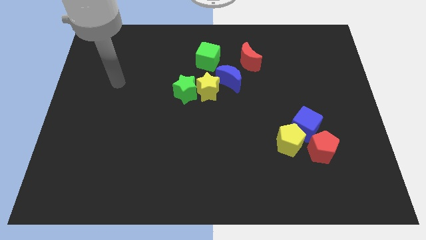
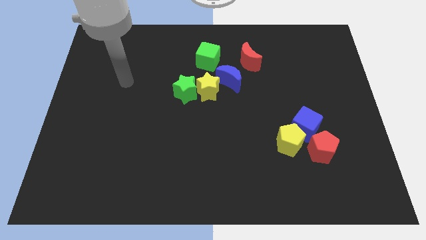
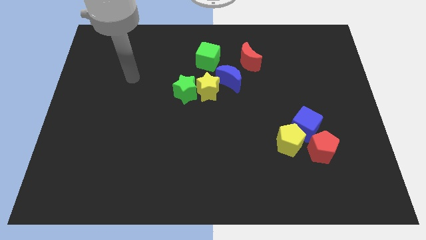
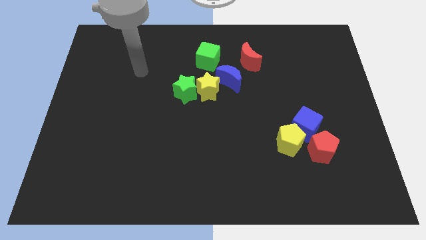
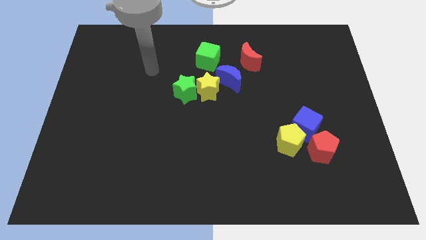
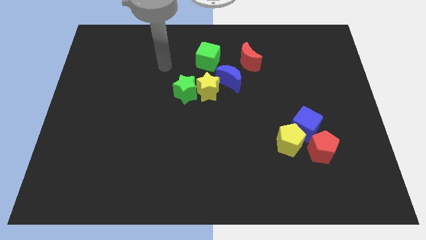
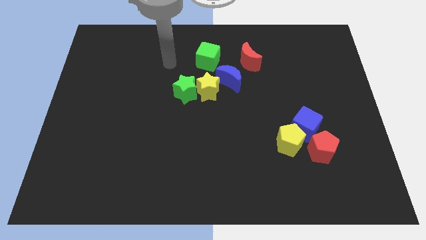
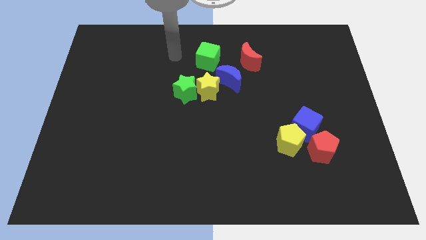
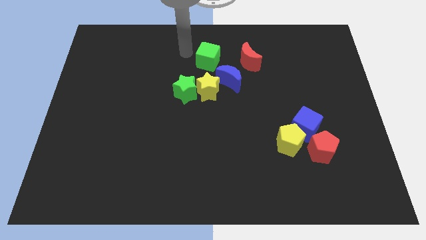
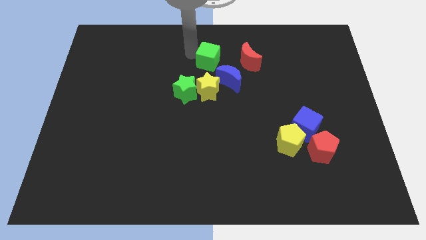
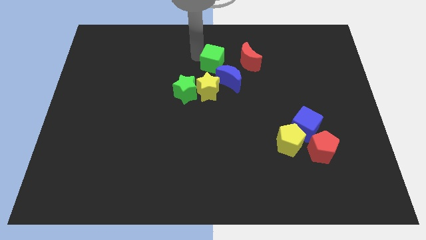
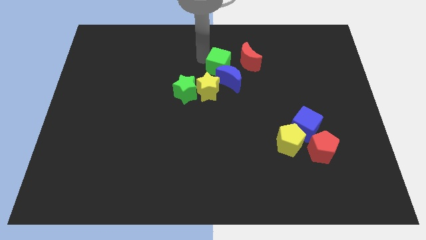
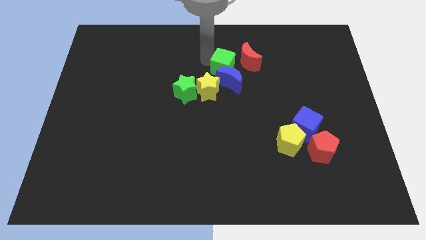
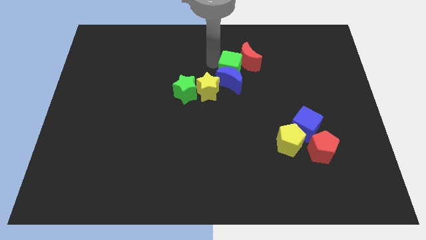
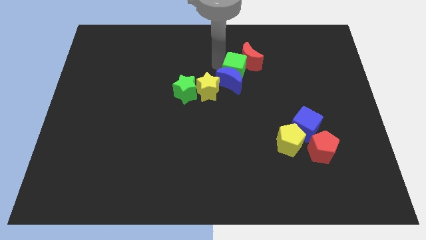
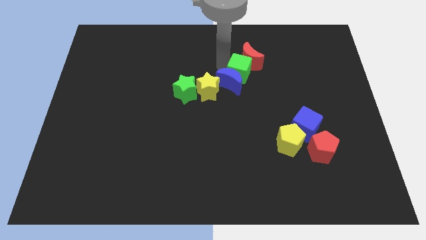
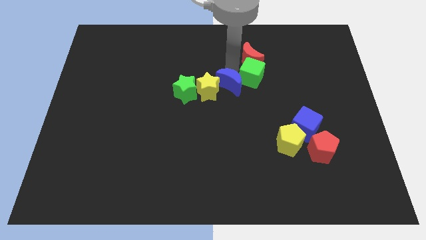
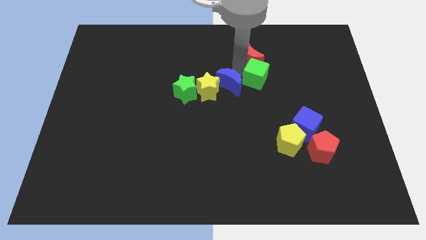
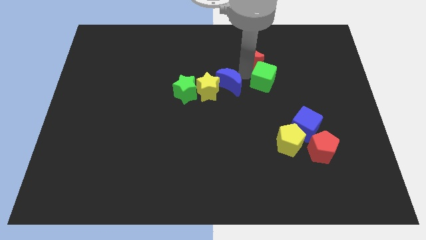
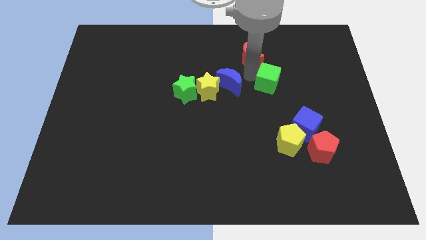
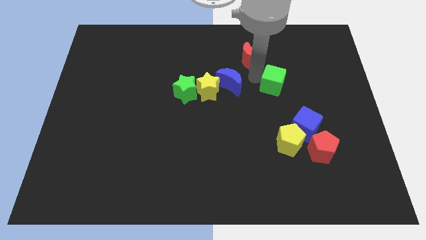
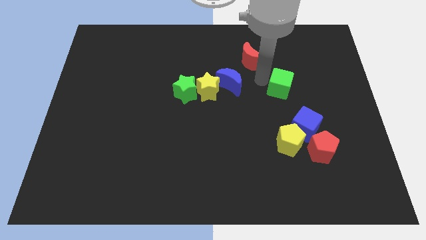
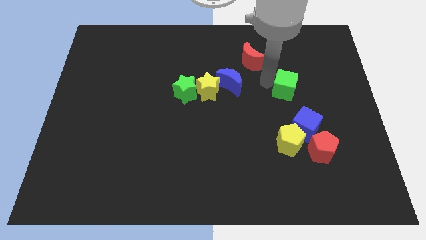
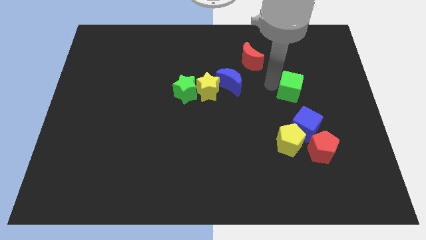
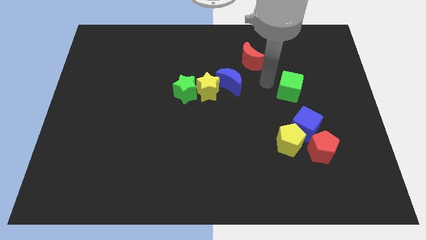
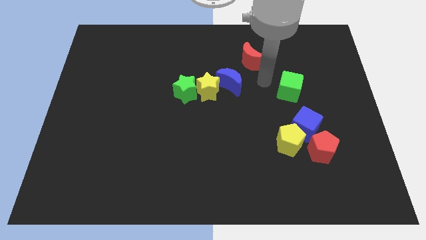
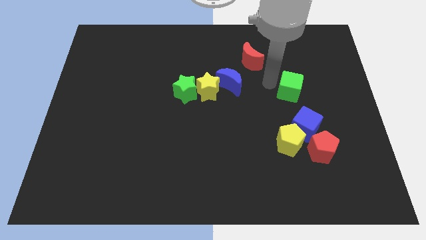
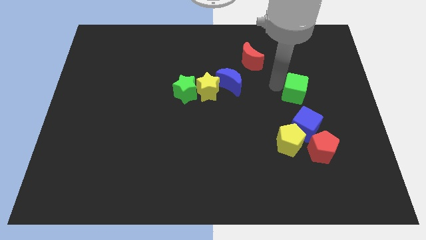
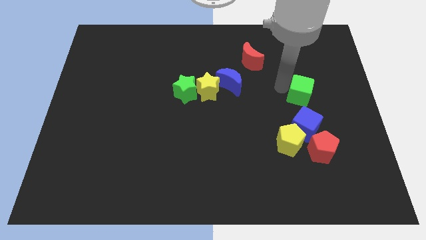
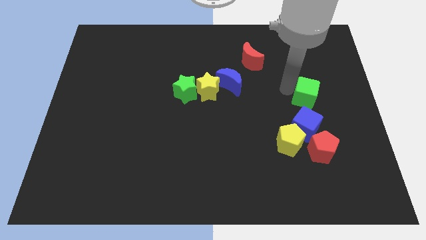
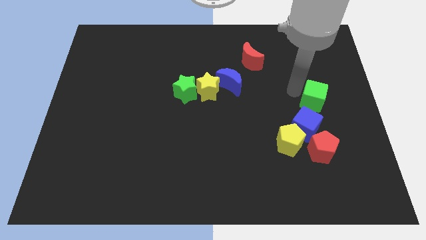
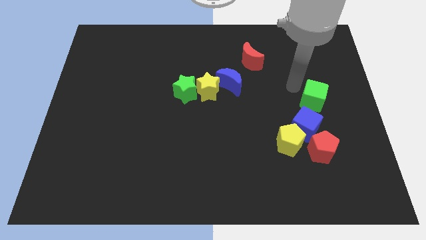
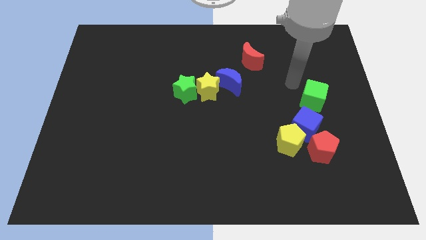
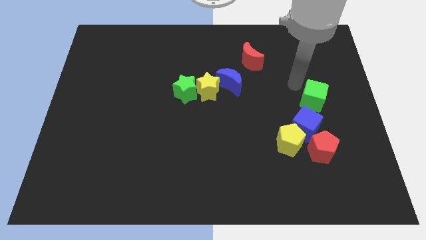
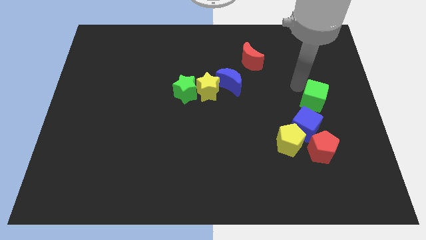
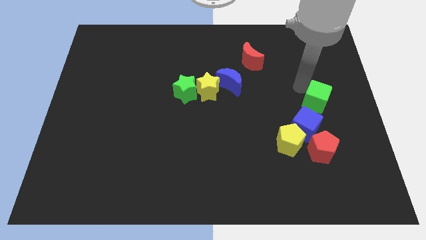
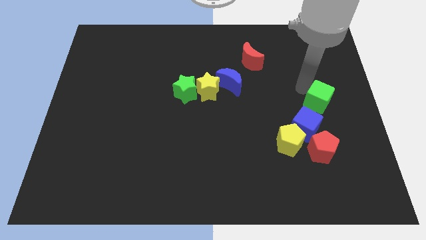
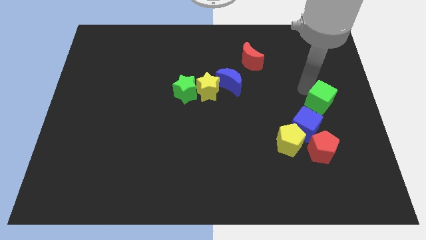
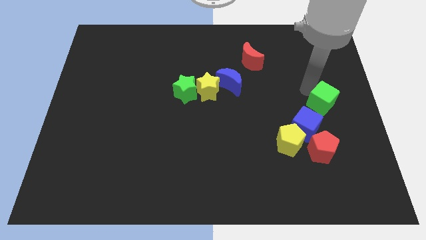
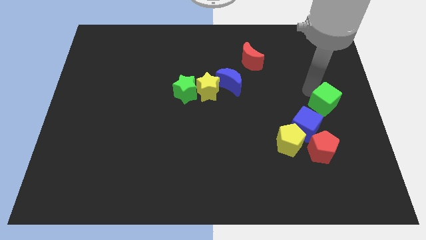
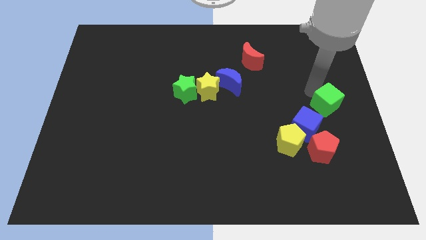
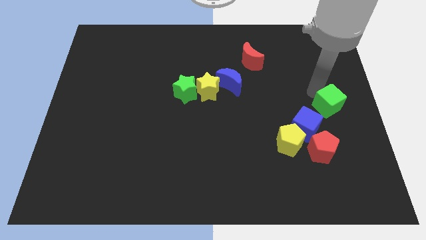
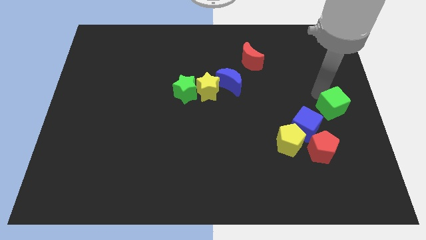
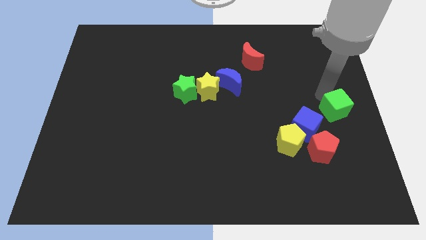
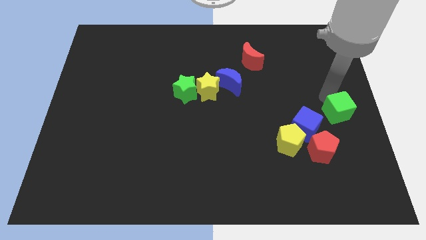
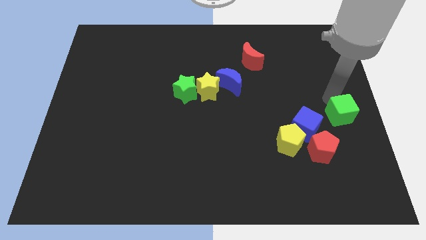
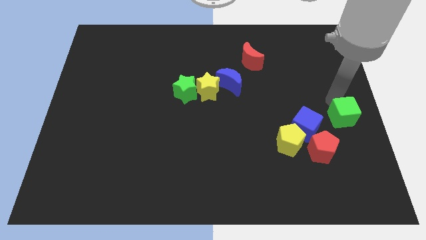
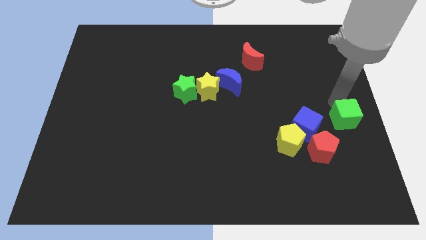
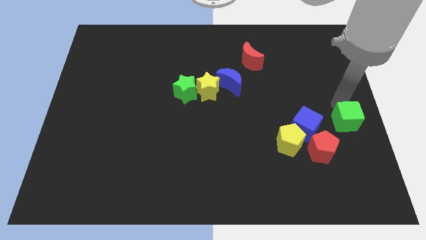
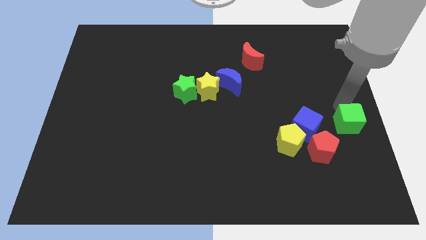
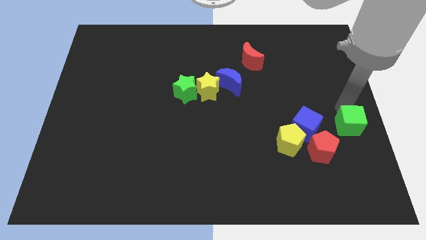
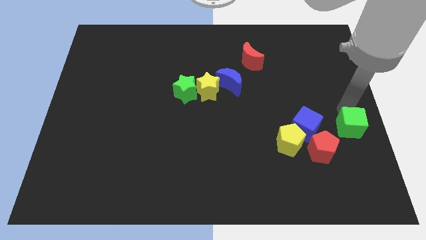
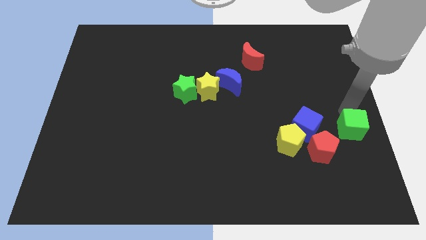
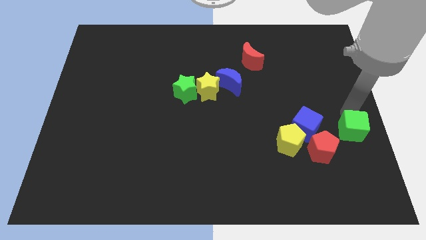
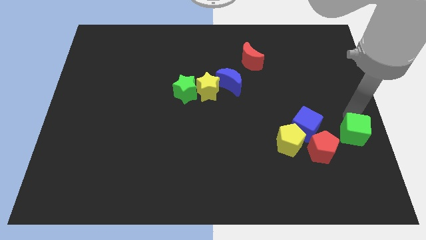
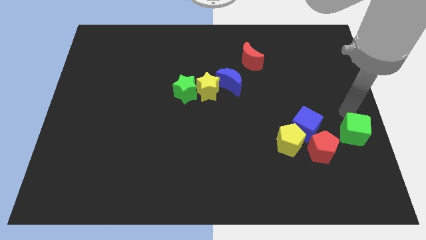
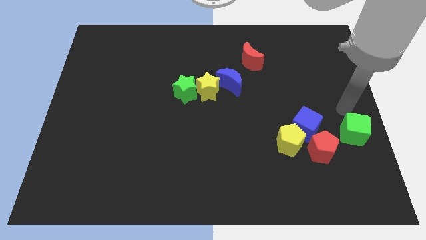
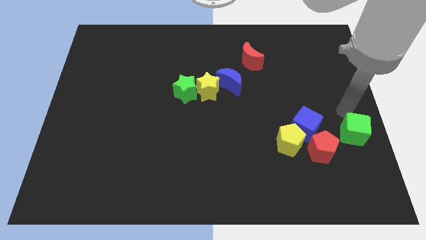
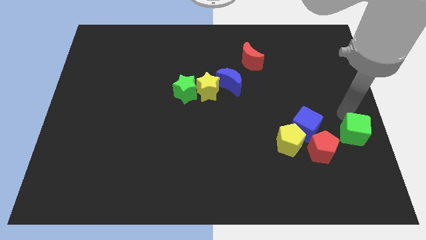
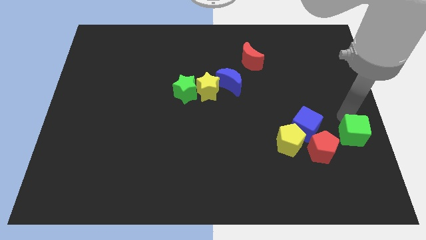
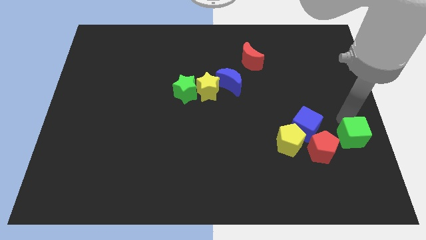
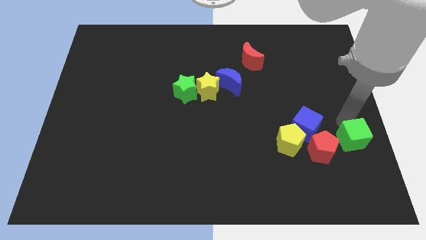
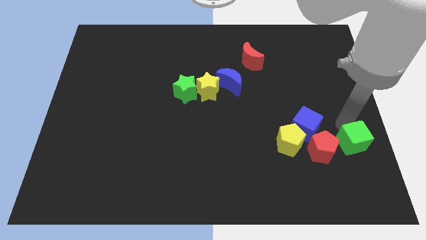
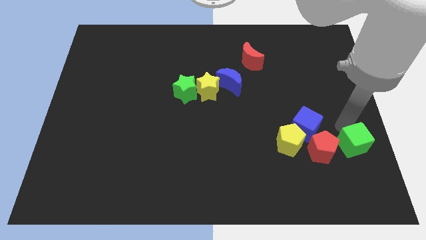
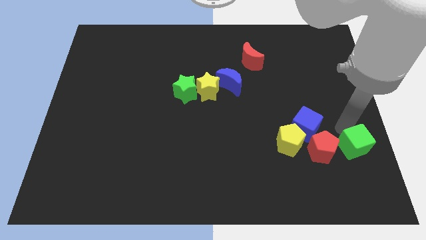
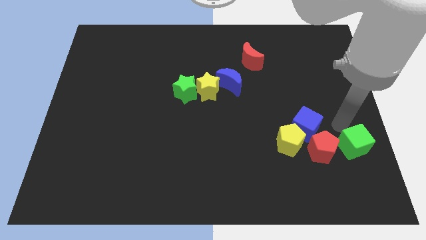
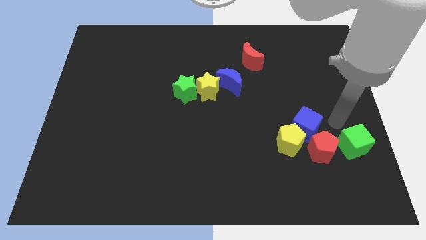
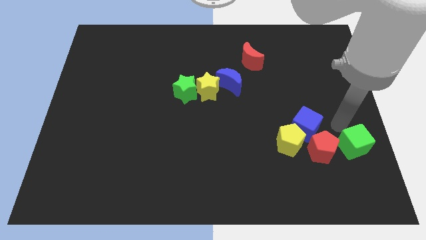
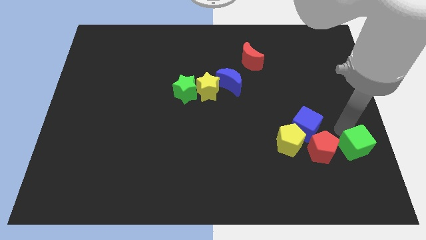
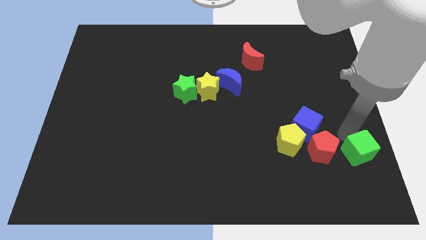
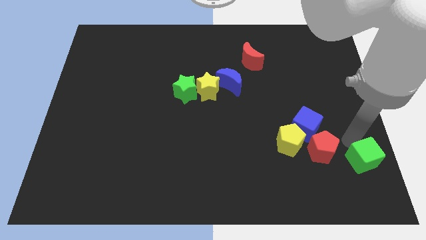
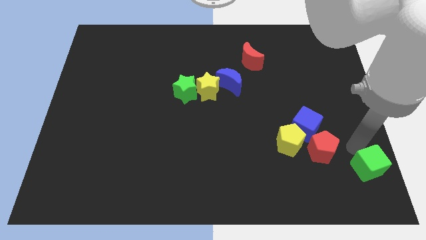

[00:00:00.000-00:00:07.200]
put the green cube to the bottom right corner

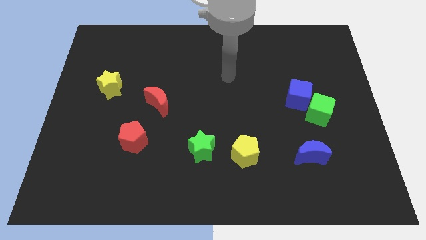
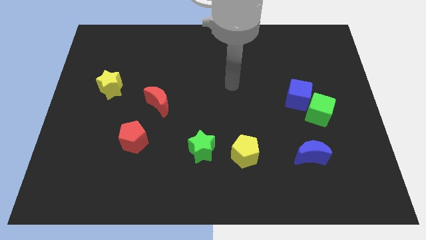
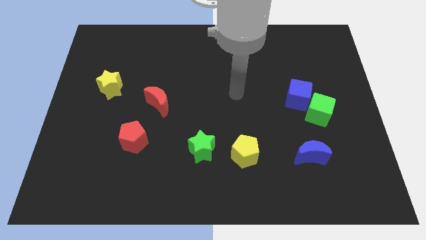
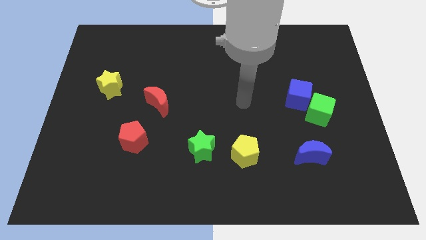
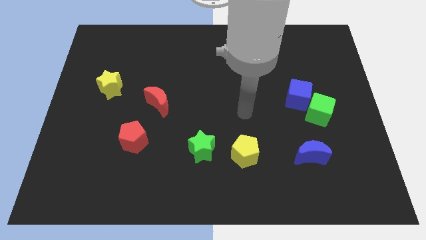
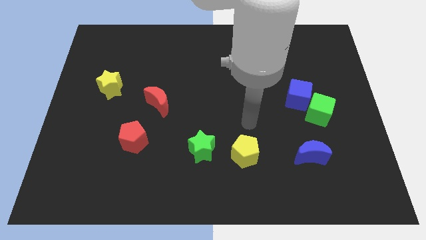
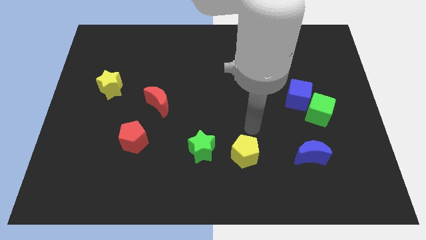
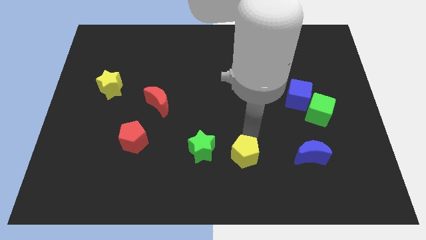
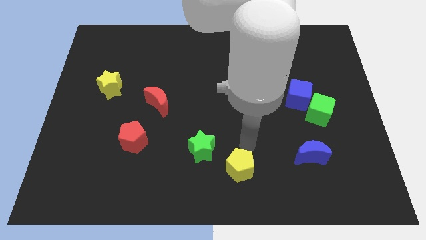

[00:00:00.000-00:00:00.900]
slide the yellow pentagon to the bottom side
